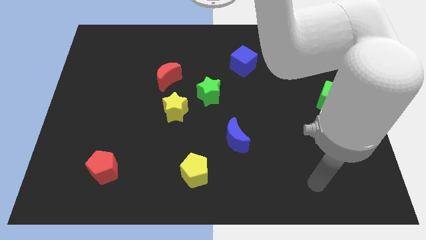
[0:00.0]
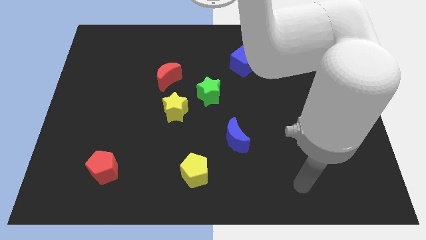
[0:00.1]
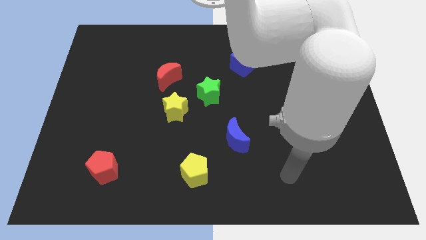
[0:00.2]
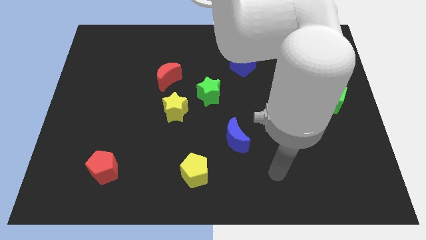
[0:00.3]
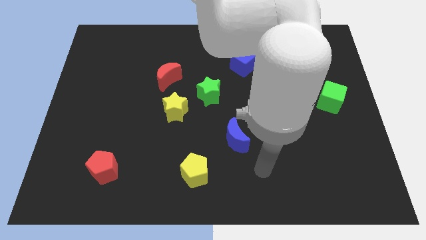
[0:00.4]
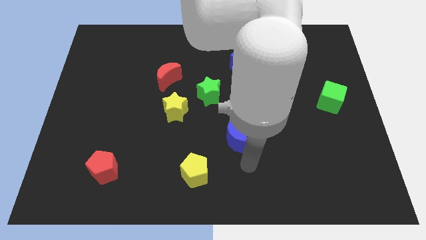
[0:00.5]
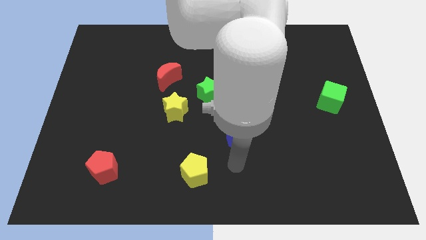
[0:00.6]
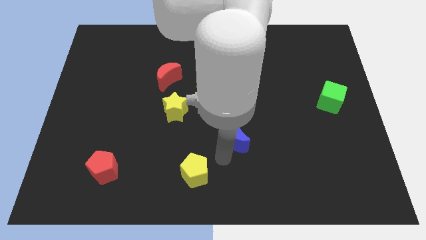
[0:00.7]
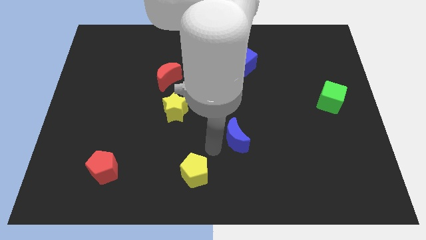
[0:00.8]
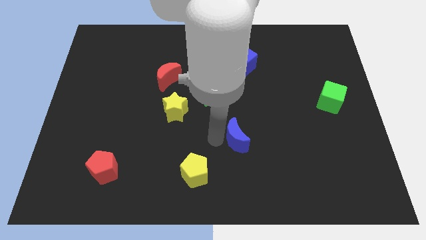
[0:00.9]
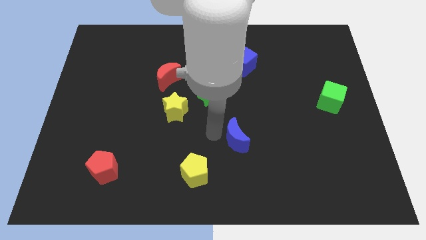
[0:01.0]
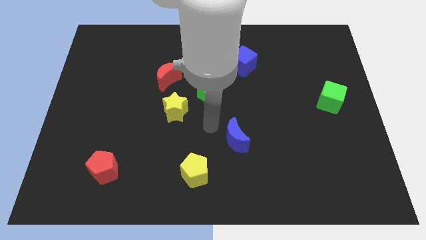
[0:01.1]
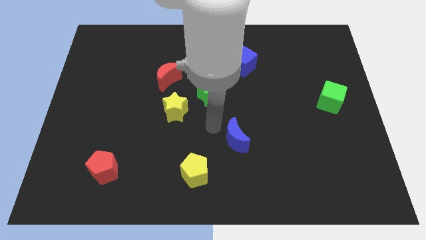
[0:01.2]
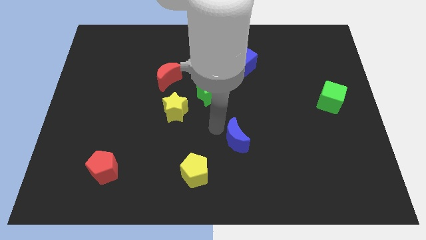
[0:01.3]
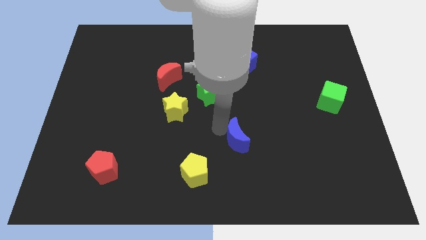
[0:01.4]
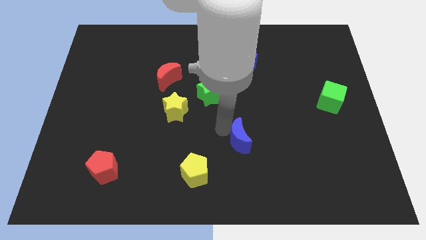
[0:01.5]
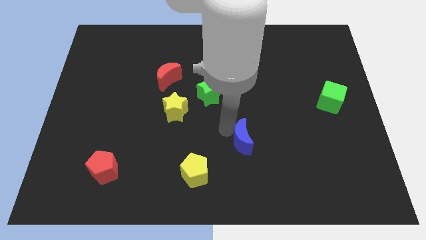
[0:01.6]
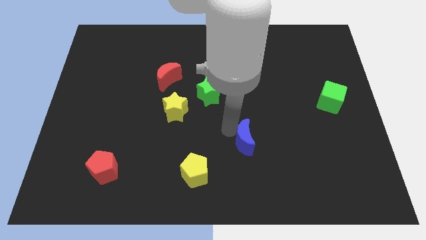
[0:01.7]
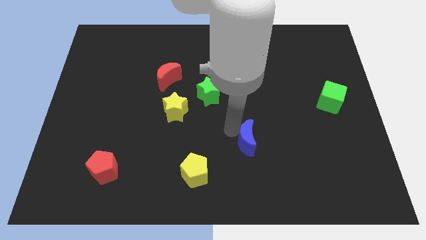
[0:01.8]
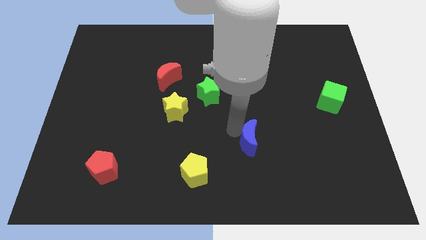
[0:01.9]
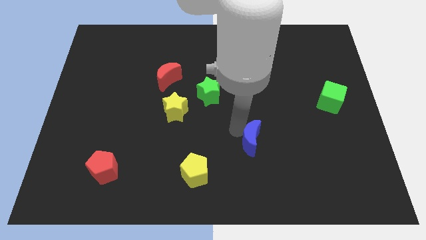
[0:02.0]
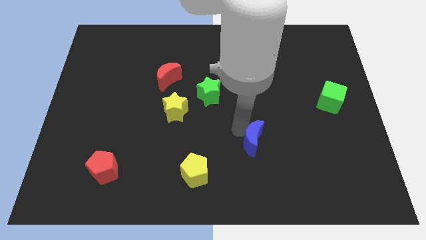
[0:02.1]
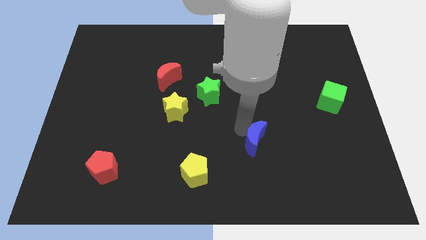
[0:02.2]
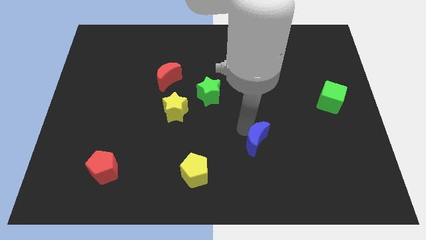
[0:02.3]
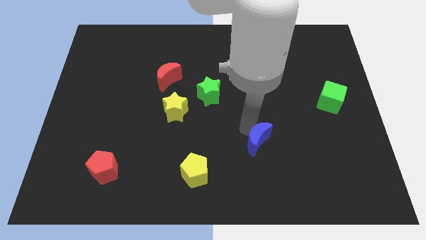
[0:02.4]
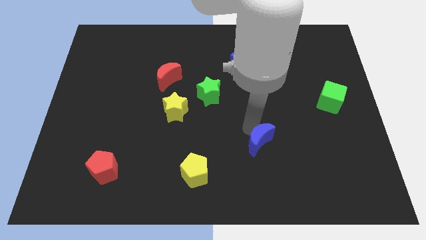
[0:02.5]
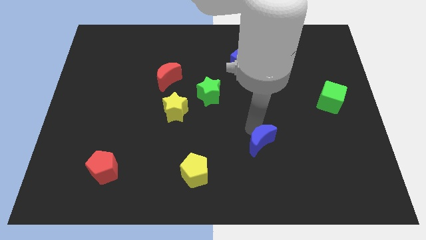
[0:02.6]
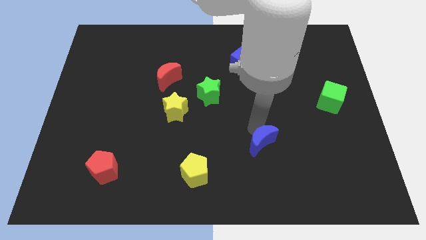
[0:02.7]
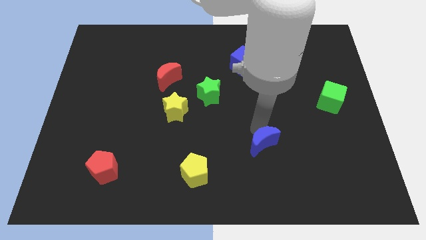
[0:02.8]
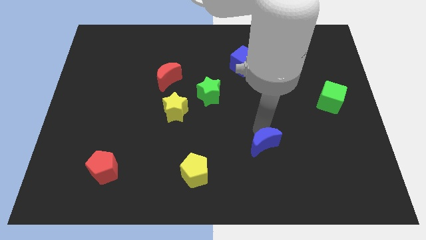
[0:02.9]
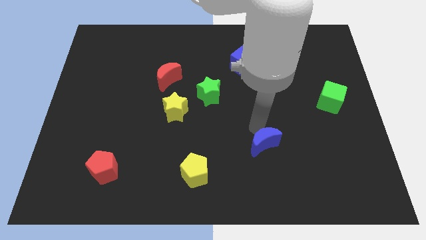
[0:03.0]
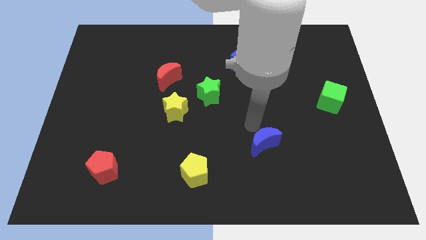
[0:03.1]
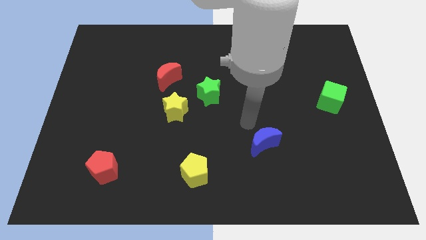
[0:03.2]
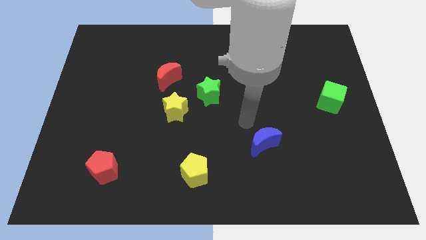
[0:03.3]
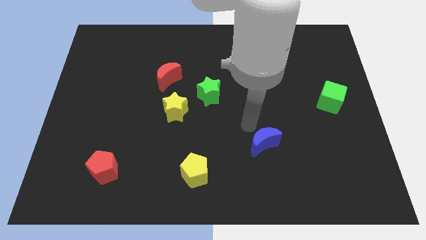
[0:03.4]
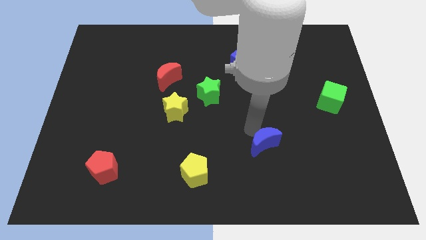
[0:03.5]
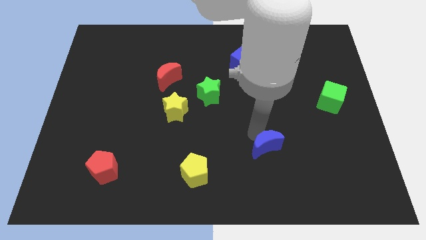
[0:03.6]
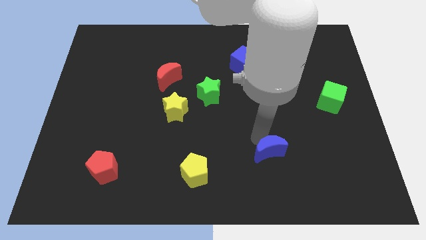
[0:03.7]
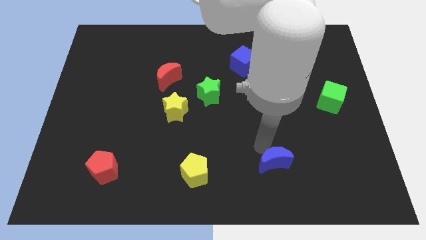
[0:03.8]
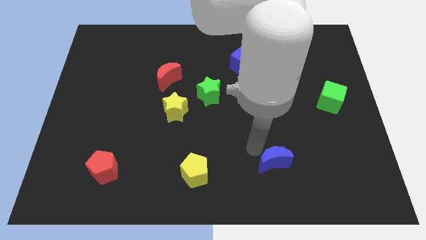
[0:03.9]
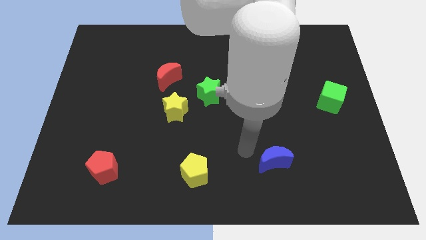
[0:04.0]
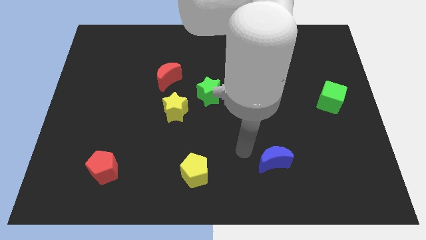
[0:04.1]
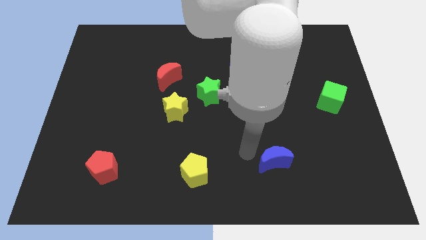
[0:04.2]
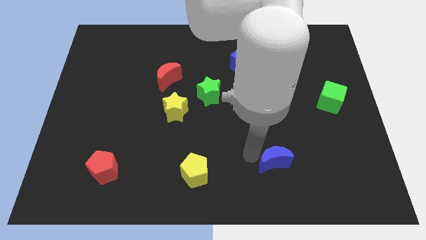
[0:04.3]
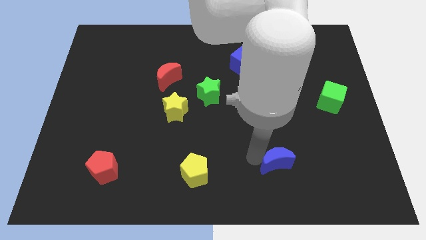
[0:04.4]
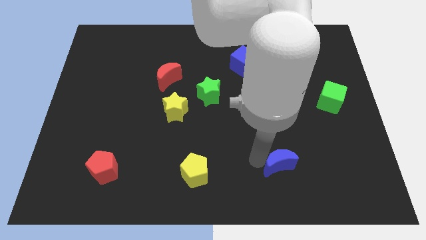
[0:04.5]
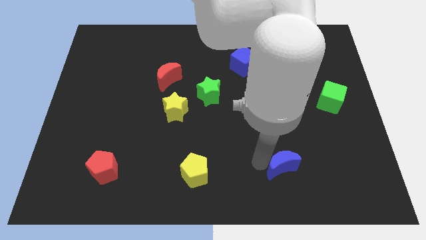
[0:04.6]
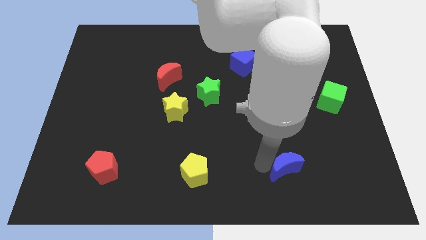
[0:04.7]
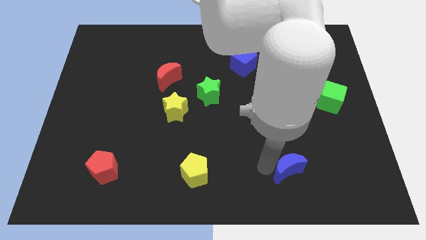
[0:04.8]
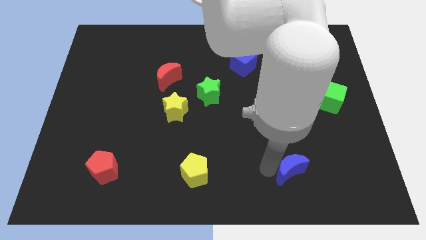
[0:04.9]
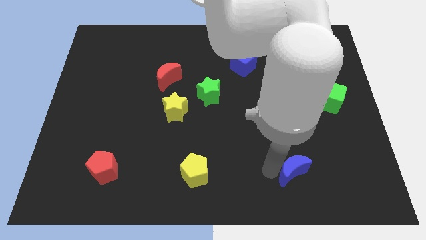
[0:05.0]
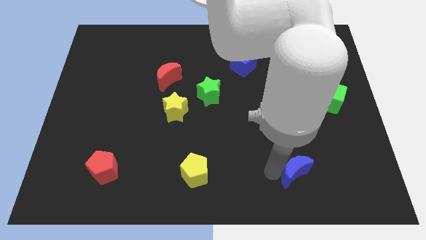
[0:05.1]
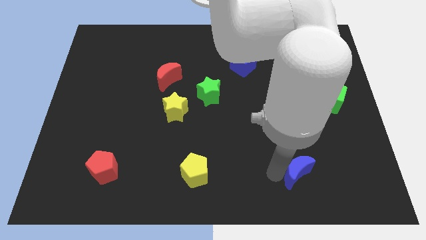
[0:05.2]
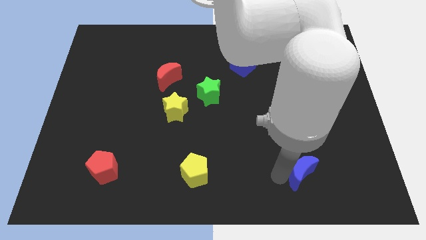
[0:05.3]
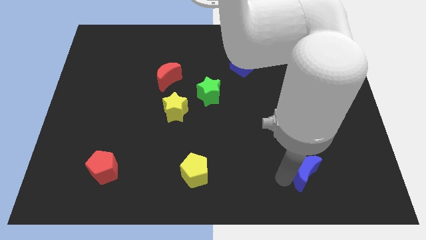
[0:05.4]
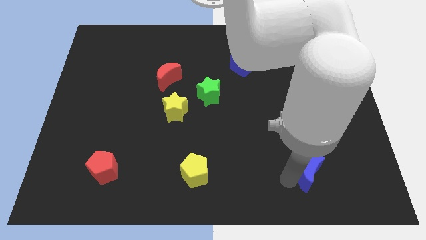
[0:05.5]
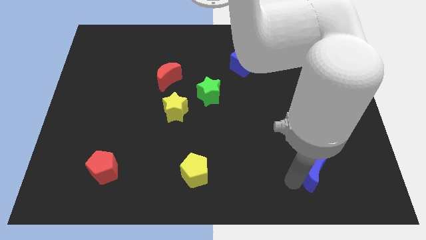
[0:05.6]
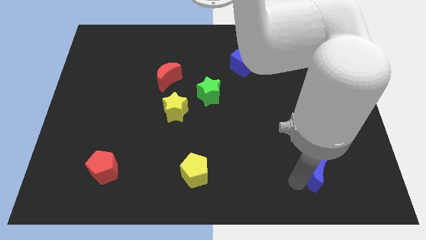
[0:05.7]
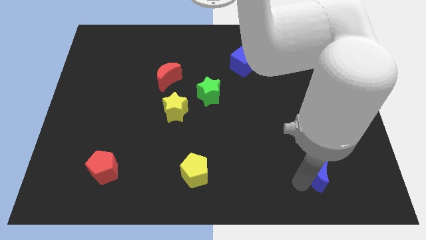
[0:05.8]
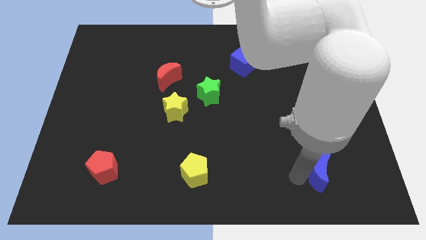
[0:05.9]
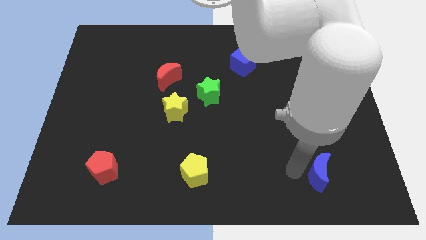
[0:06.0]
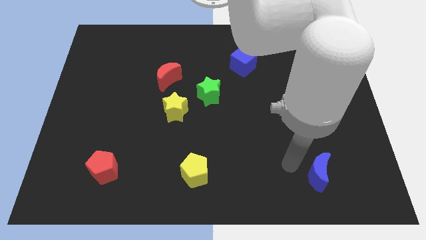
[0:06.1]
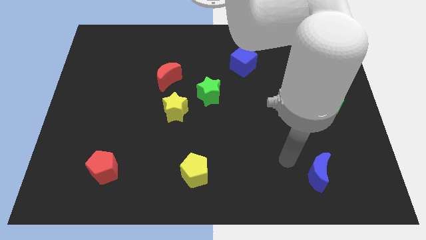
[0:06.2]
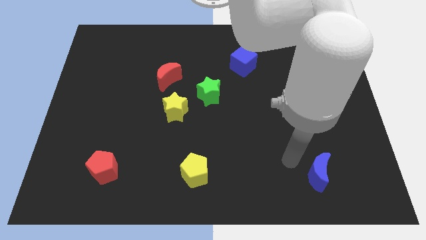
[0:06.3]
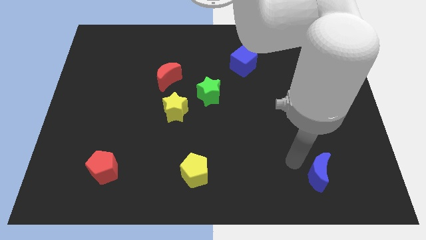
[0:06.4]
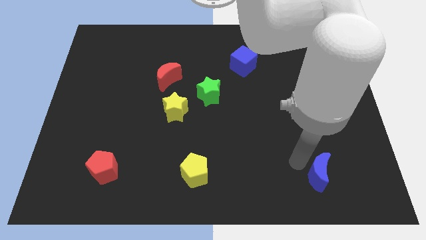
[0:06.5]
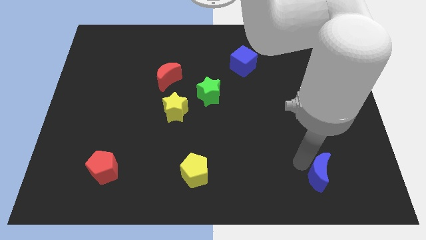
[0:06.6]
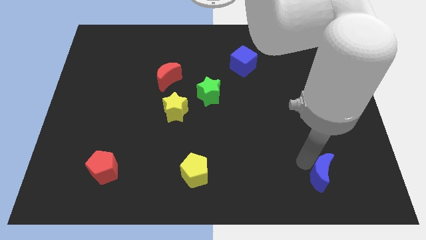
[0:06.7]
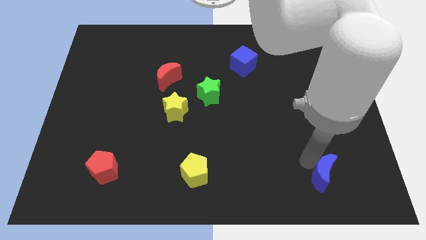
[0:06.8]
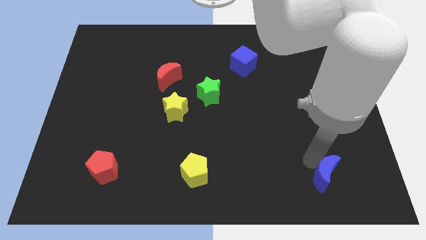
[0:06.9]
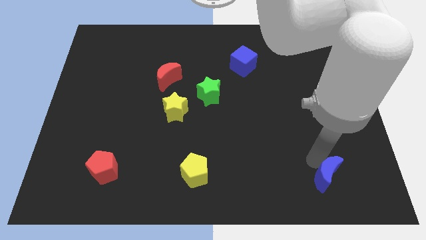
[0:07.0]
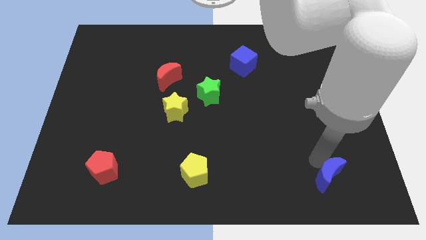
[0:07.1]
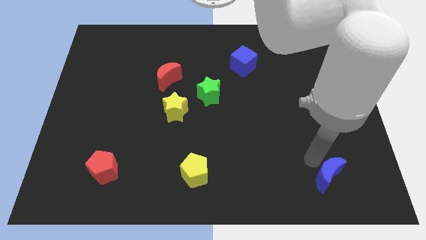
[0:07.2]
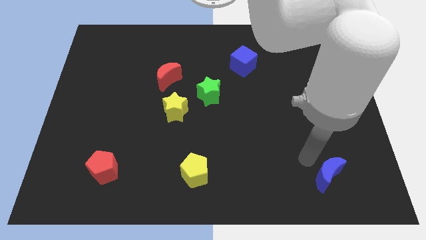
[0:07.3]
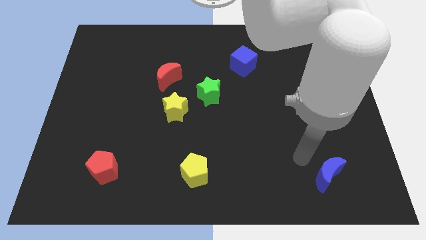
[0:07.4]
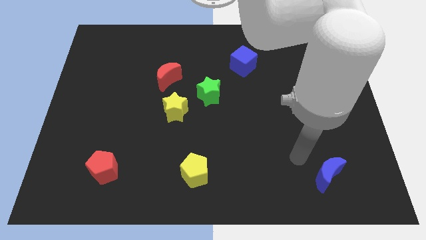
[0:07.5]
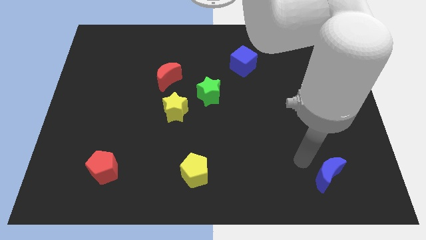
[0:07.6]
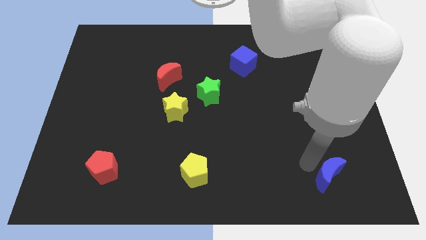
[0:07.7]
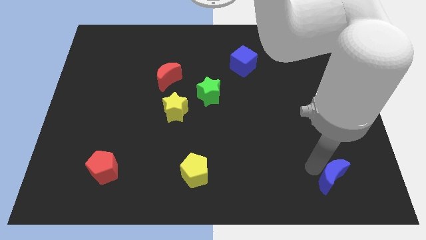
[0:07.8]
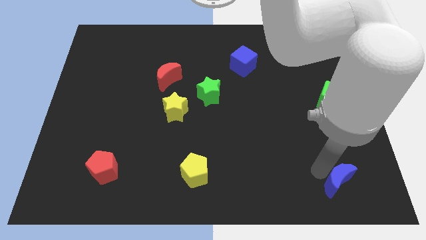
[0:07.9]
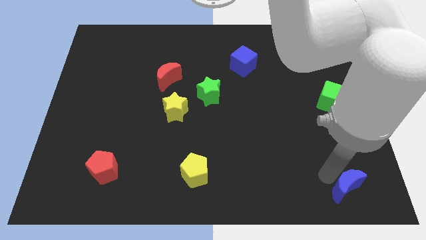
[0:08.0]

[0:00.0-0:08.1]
move the blue moon to the bottom right corner
